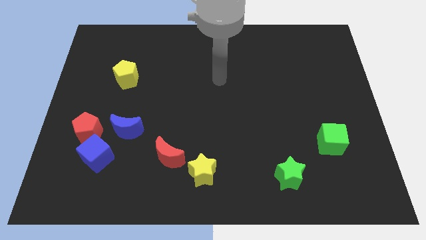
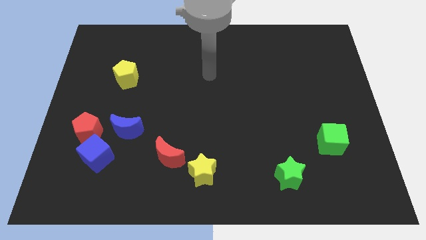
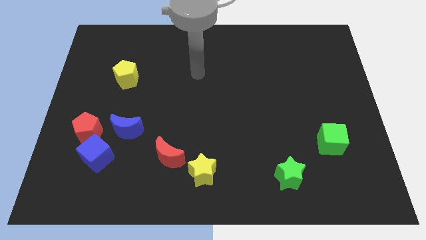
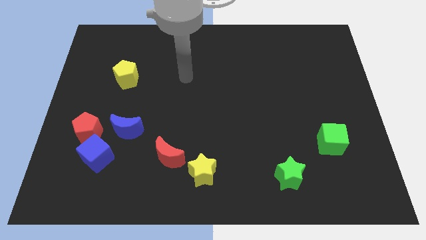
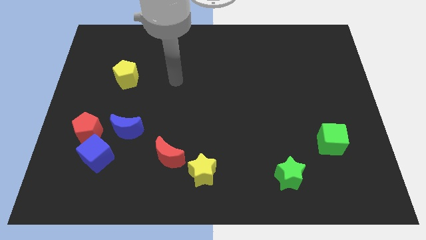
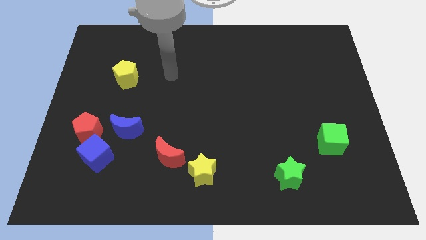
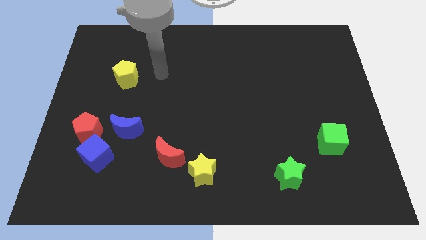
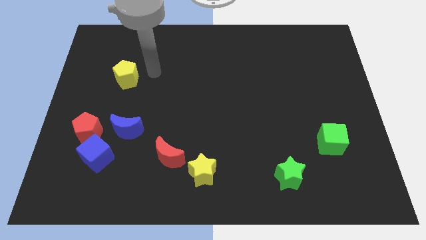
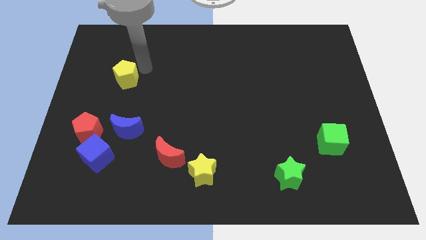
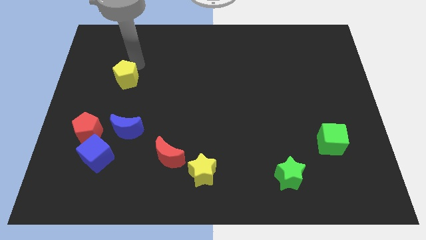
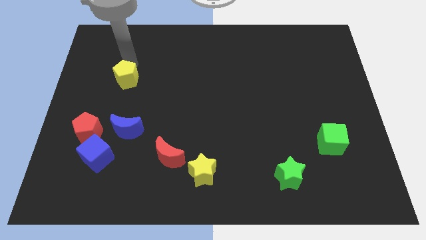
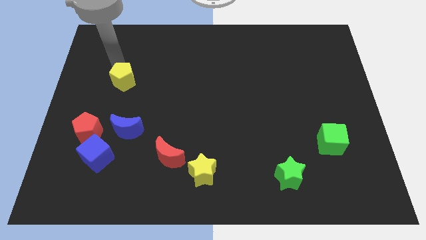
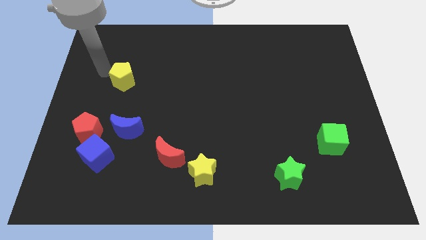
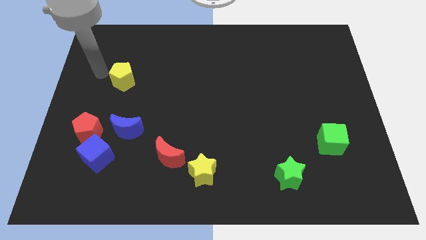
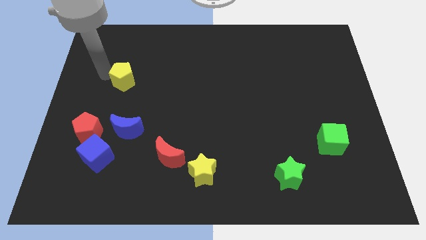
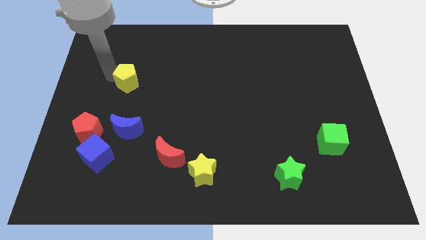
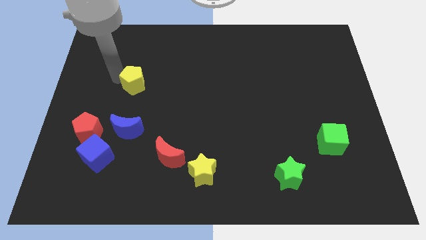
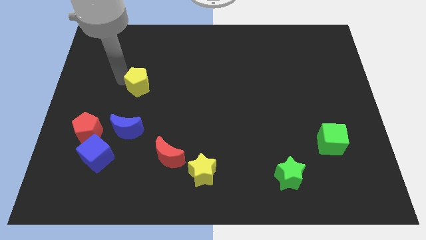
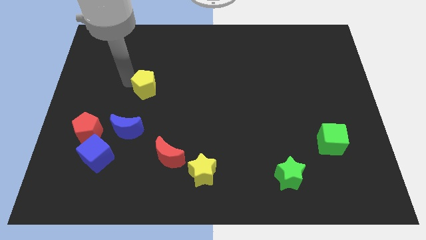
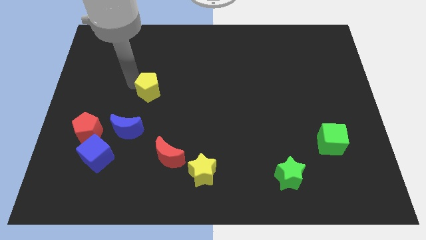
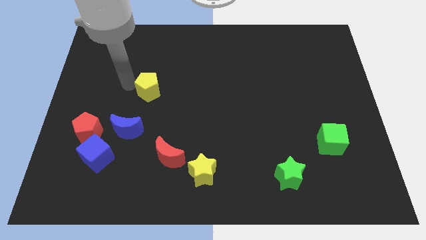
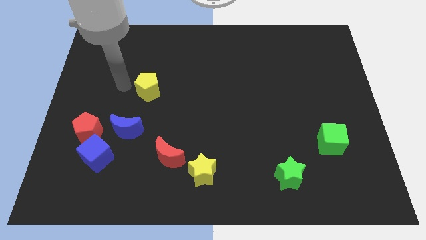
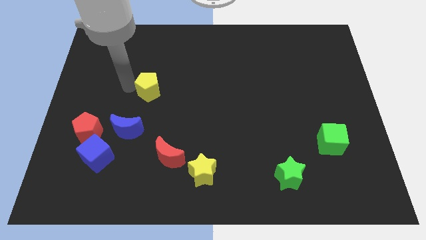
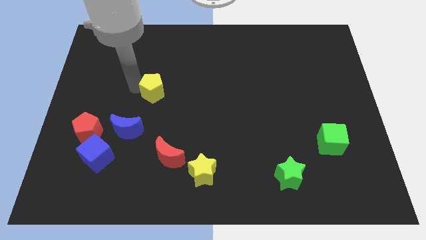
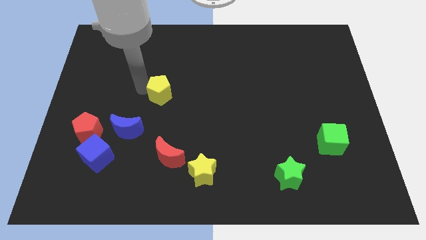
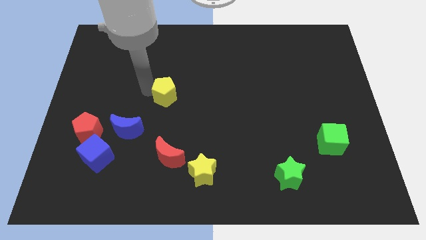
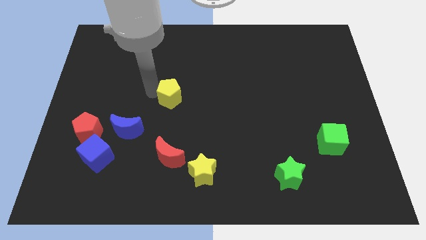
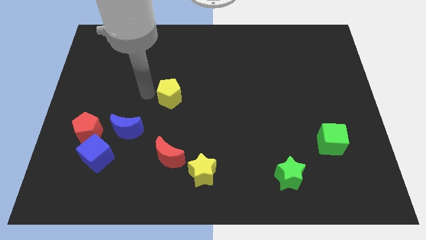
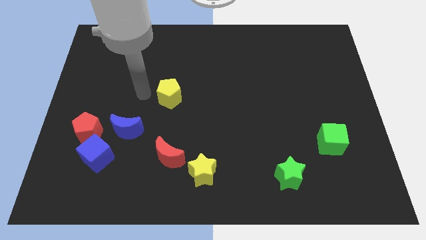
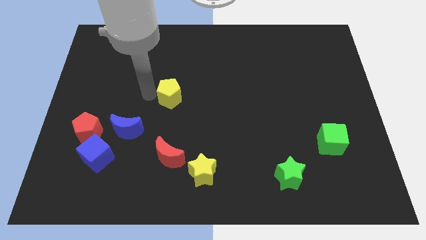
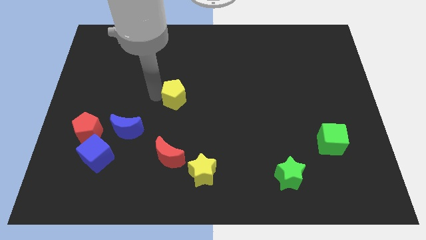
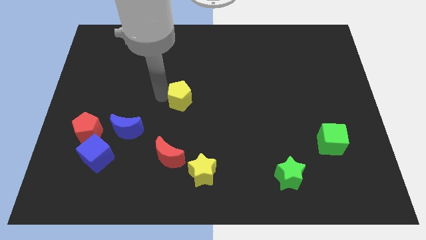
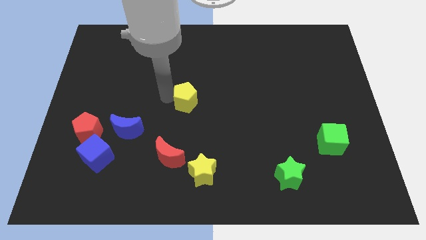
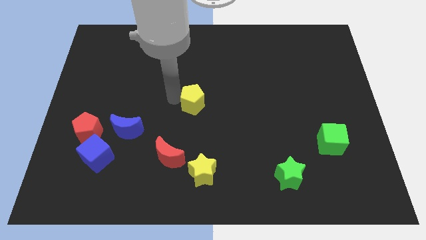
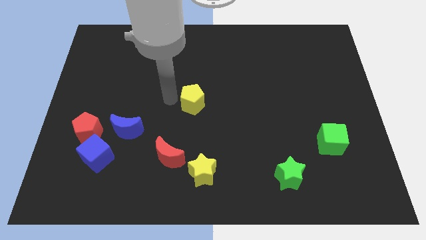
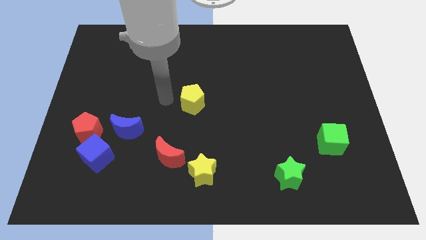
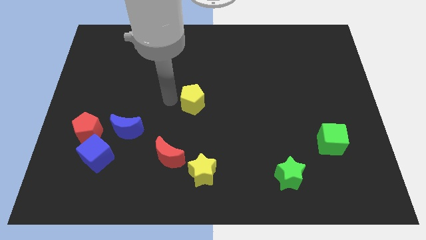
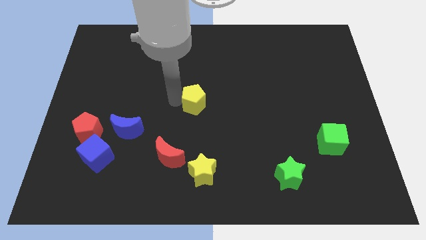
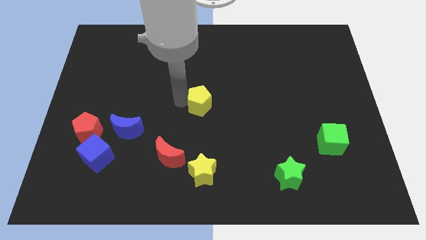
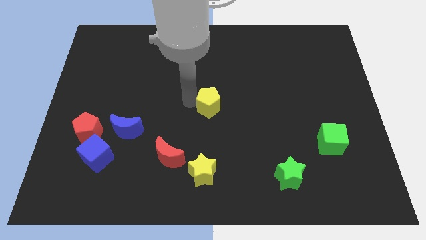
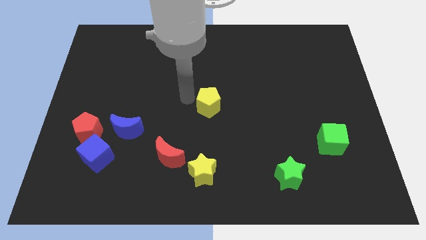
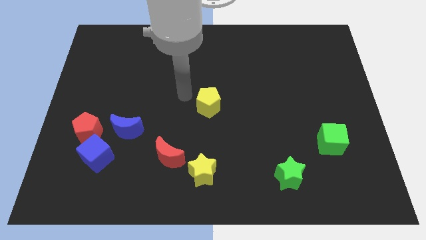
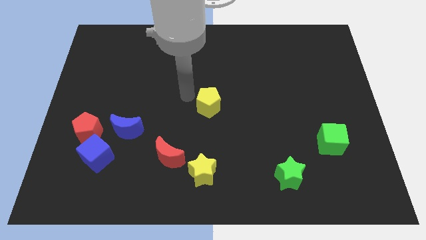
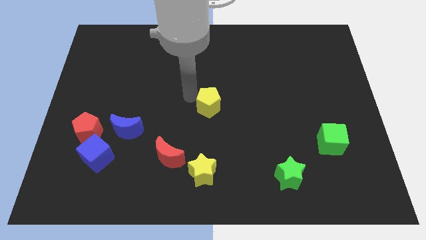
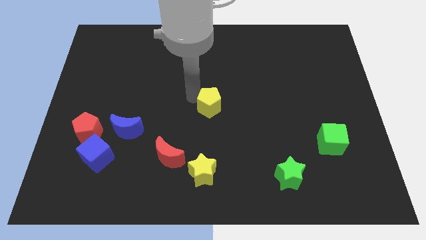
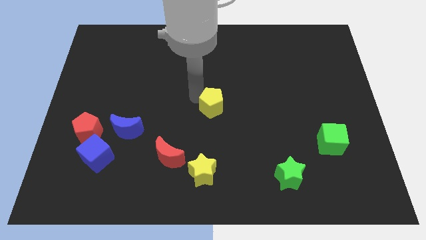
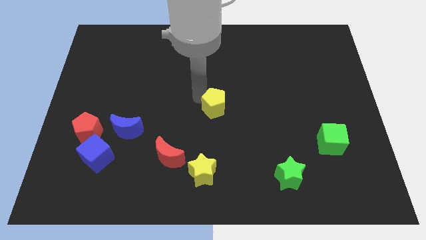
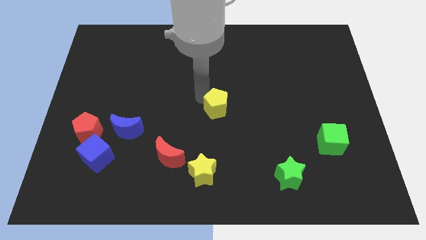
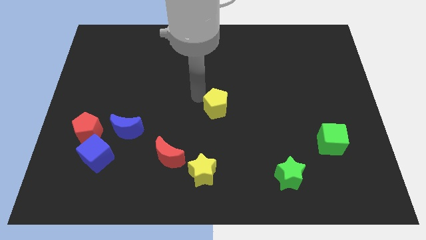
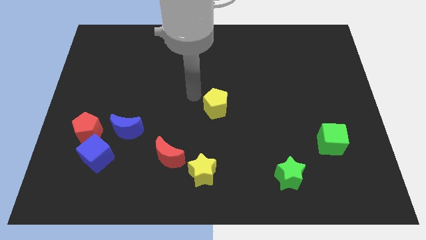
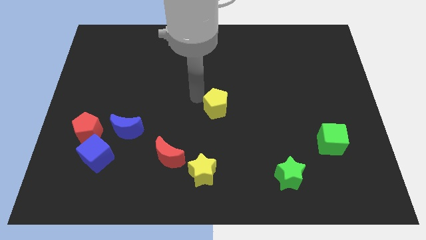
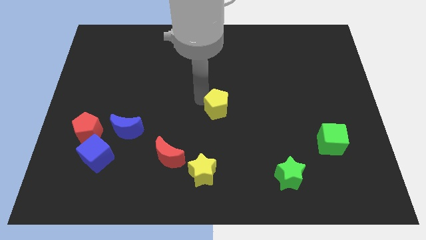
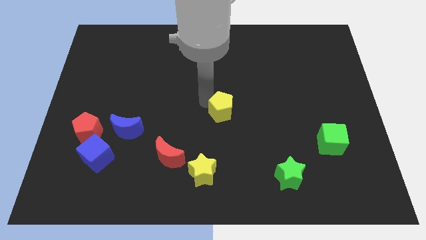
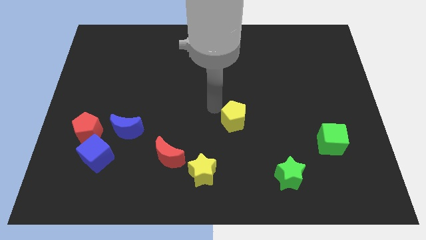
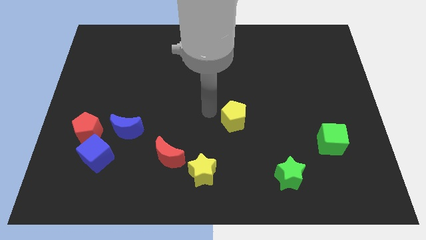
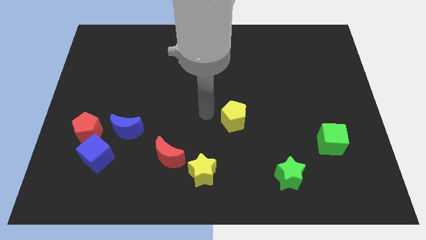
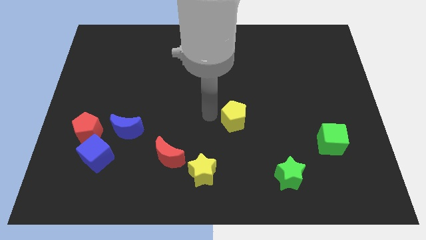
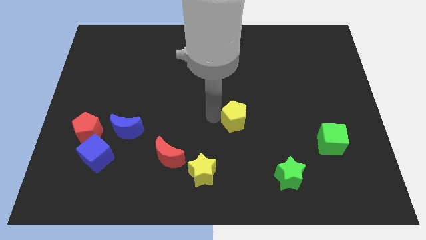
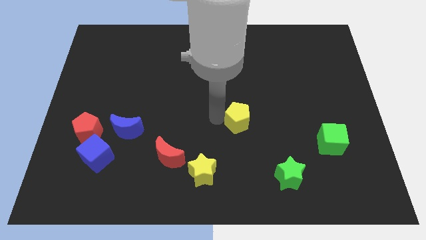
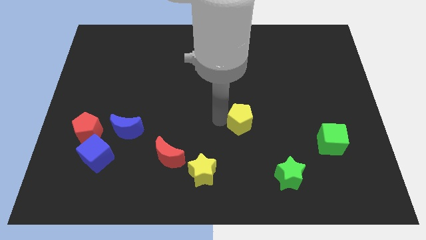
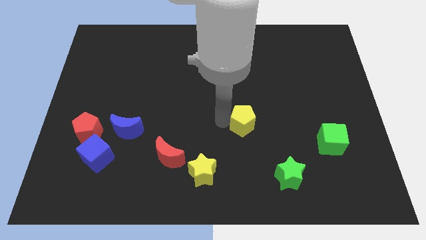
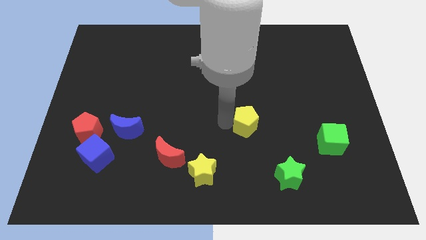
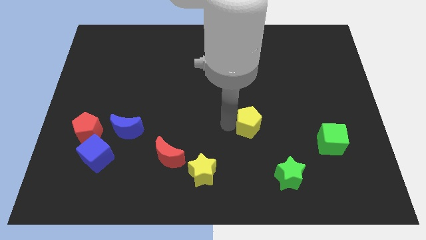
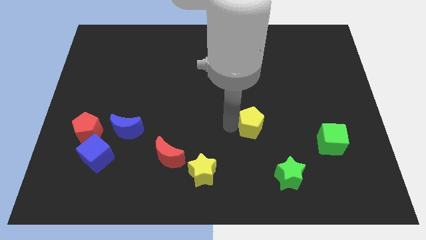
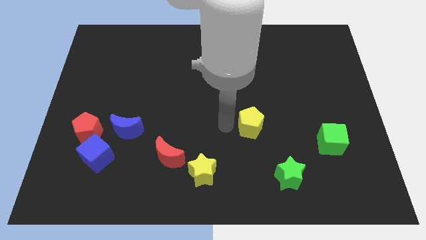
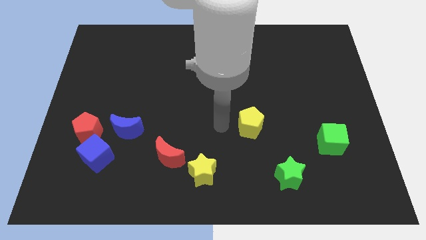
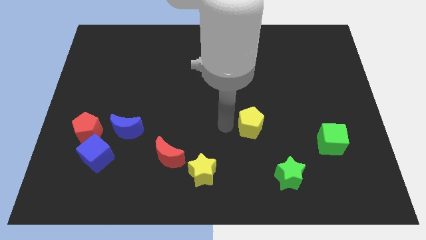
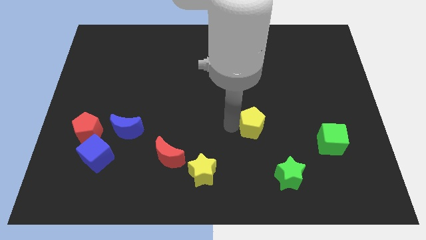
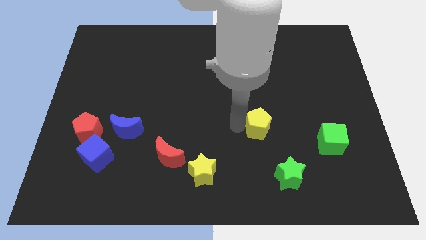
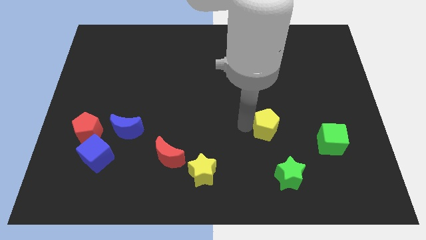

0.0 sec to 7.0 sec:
slide the yellow pentagon above the green star

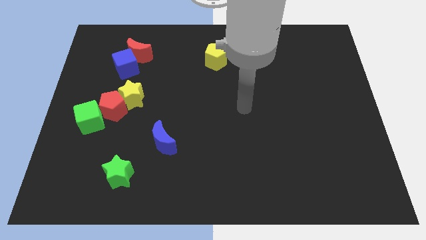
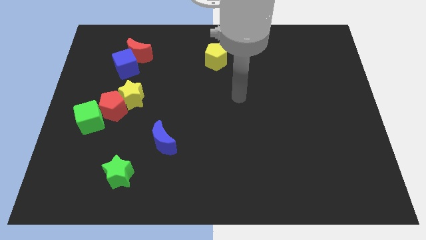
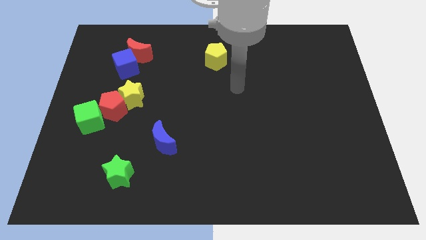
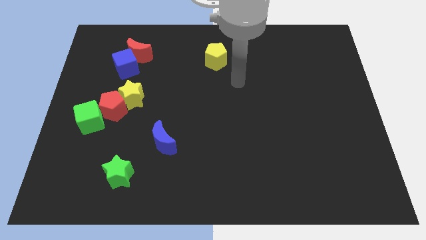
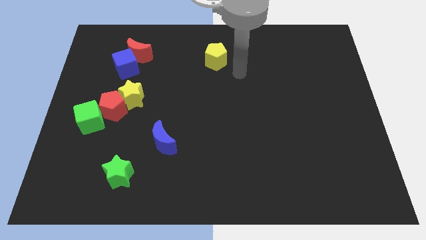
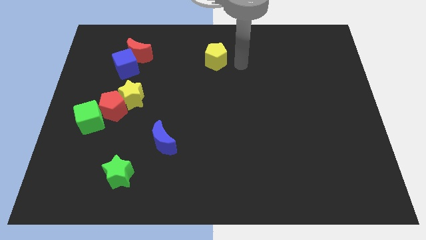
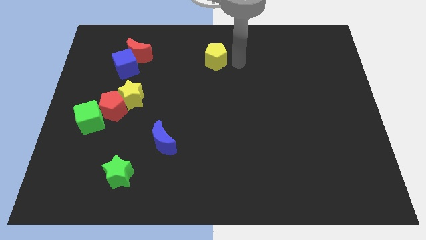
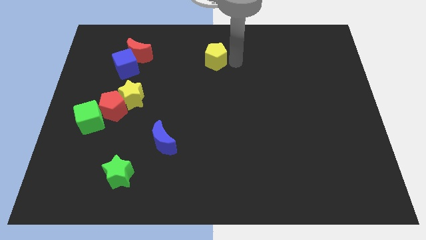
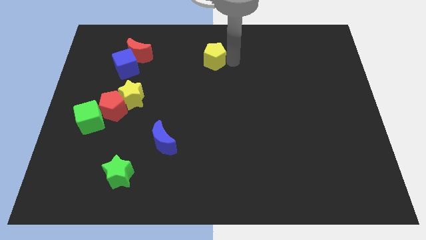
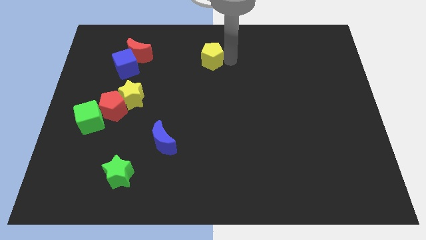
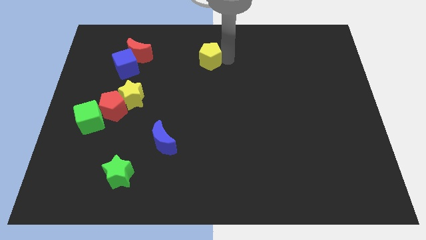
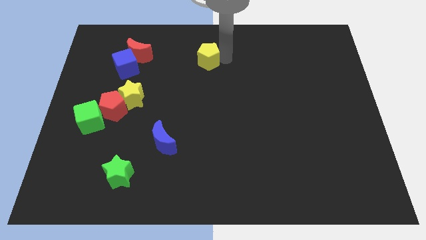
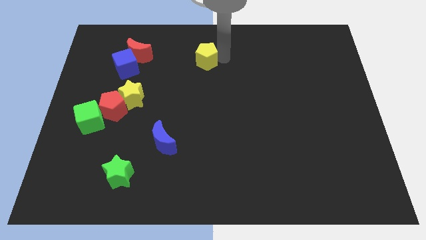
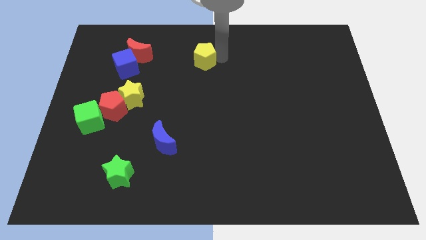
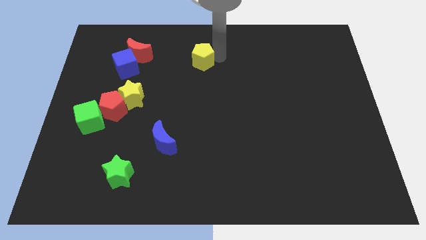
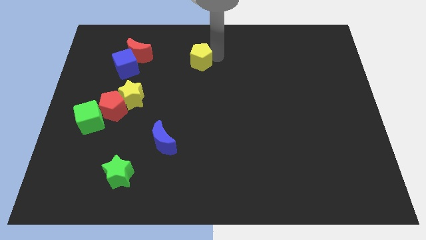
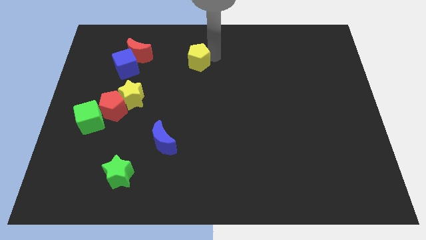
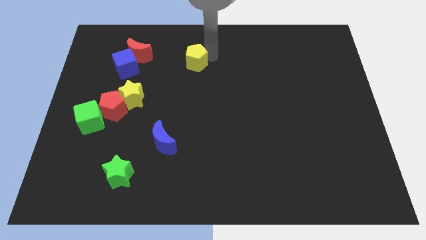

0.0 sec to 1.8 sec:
move the yellow pentagon just right of the red moon
